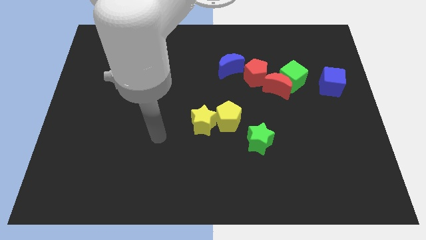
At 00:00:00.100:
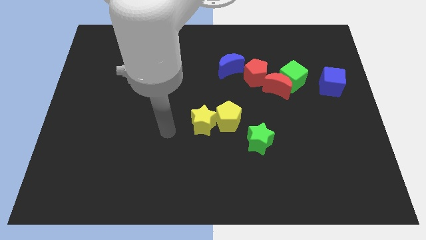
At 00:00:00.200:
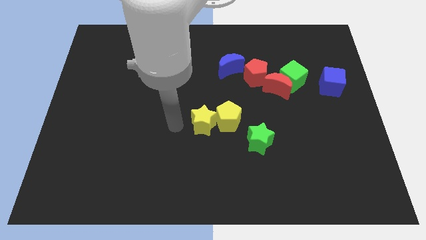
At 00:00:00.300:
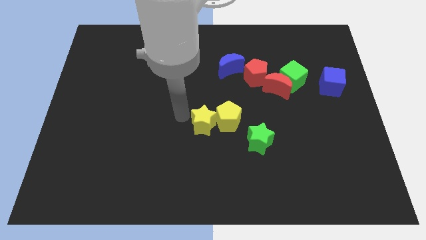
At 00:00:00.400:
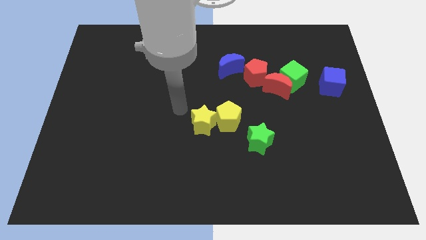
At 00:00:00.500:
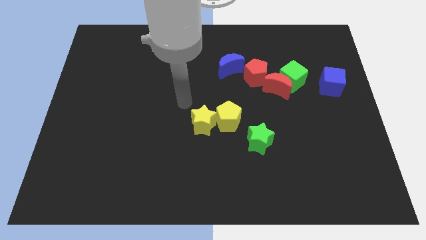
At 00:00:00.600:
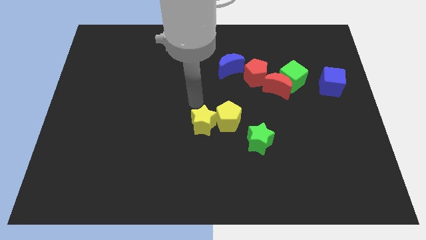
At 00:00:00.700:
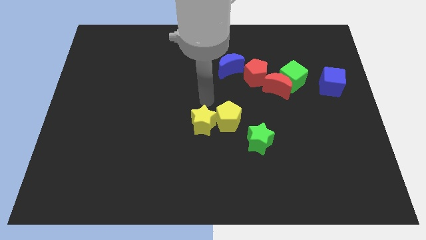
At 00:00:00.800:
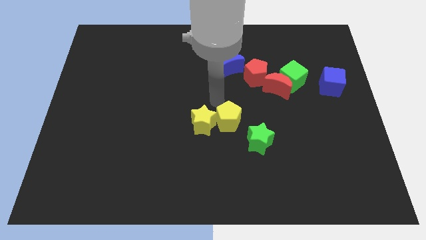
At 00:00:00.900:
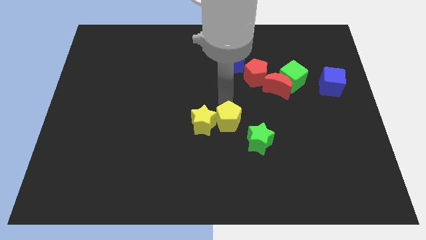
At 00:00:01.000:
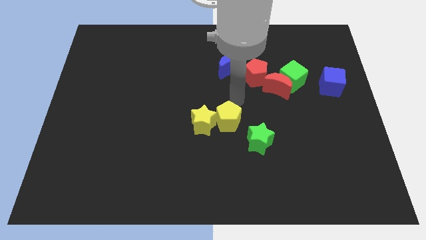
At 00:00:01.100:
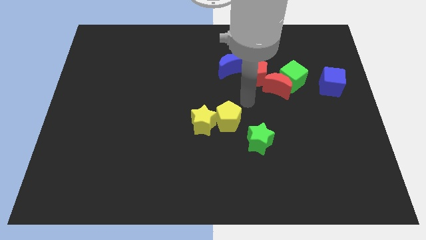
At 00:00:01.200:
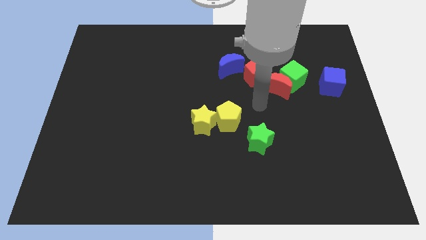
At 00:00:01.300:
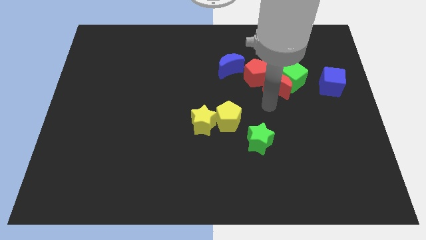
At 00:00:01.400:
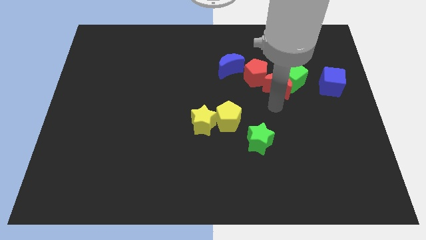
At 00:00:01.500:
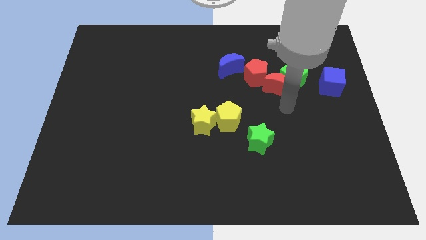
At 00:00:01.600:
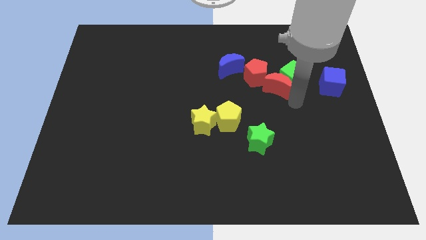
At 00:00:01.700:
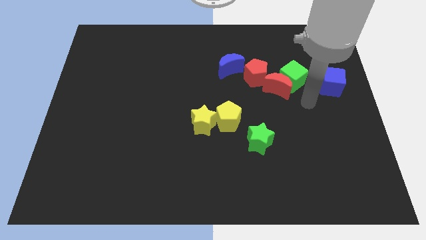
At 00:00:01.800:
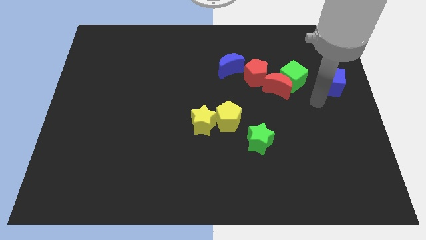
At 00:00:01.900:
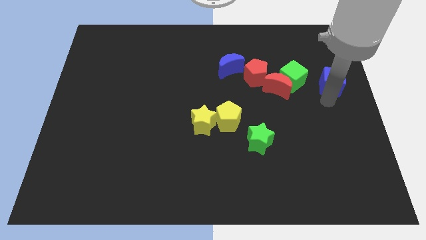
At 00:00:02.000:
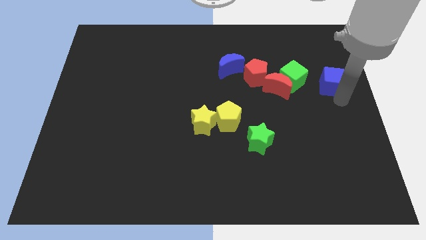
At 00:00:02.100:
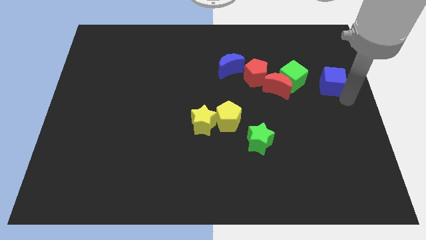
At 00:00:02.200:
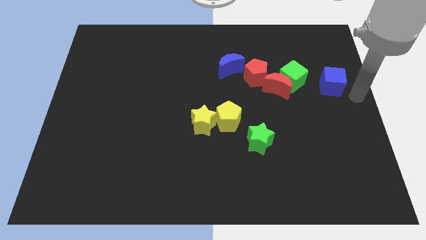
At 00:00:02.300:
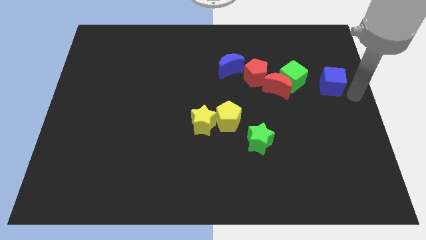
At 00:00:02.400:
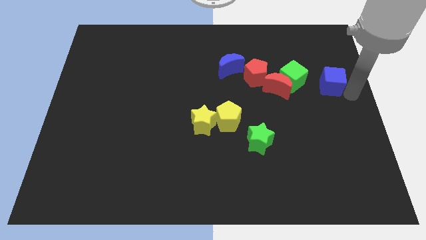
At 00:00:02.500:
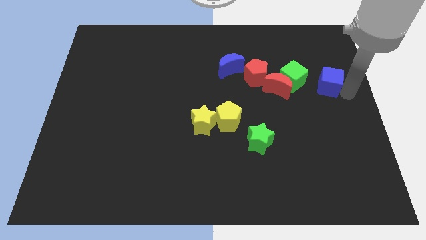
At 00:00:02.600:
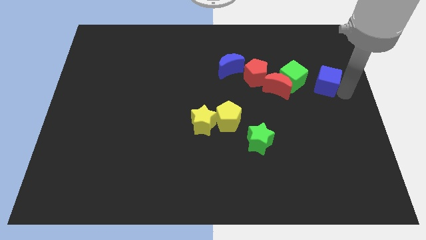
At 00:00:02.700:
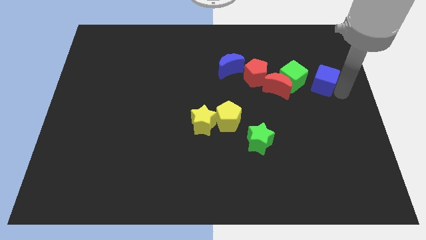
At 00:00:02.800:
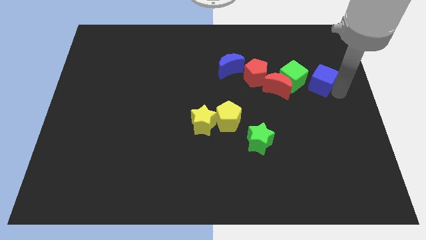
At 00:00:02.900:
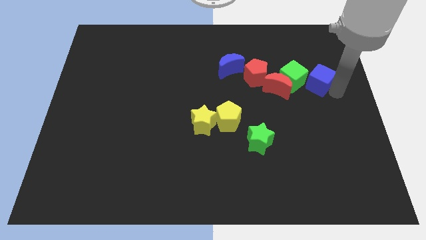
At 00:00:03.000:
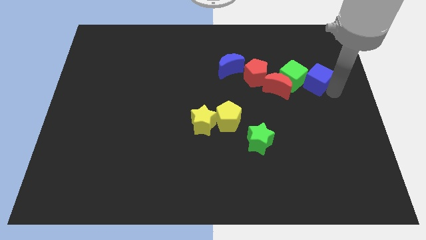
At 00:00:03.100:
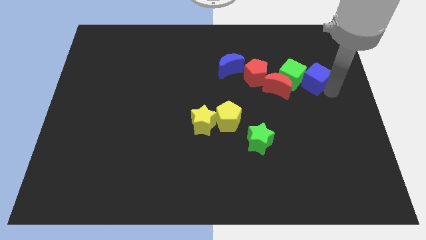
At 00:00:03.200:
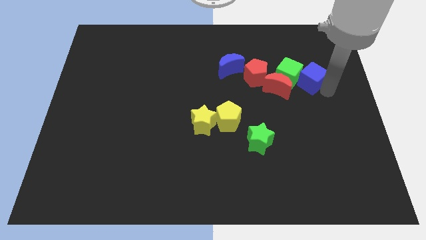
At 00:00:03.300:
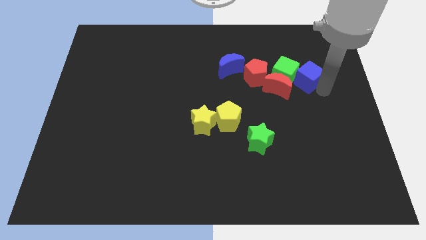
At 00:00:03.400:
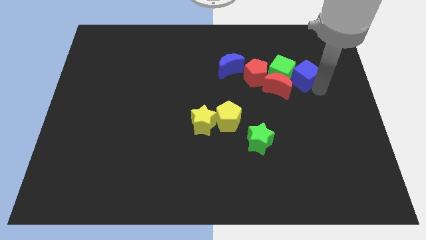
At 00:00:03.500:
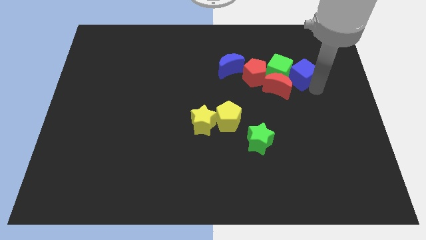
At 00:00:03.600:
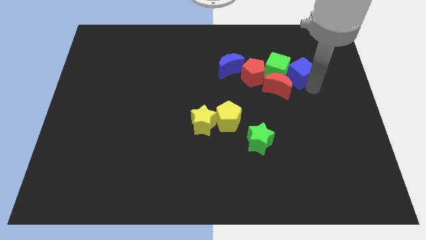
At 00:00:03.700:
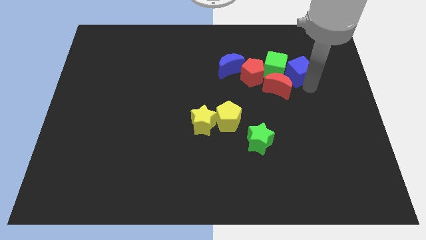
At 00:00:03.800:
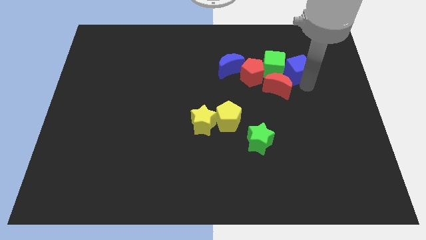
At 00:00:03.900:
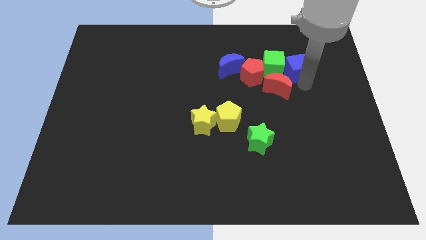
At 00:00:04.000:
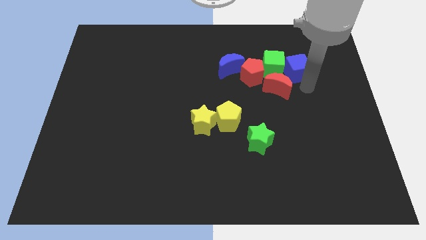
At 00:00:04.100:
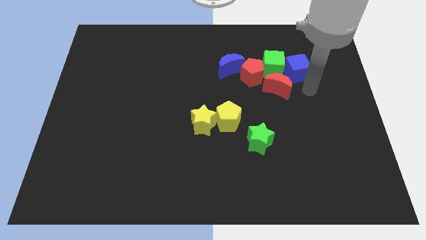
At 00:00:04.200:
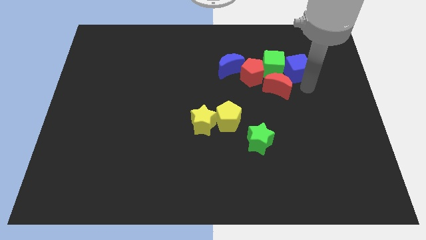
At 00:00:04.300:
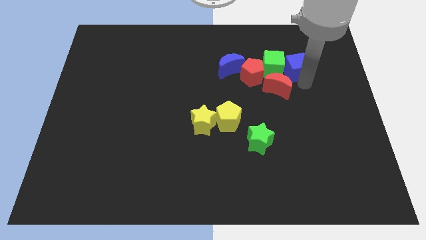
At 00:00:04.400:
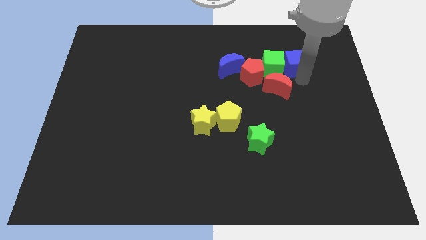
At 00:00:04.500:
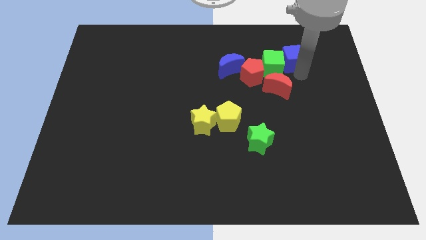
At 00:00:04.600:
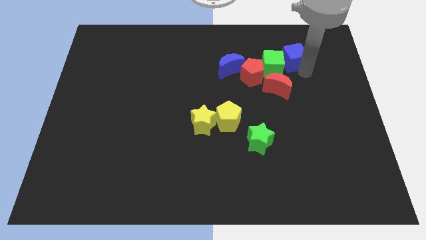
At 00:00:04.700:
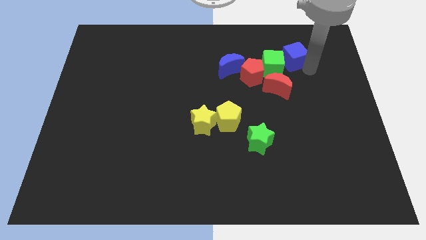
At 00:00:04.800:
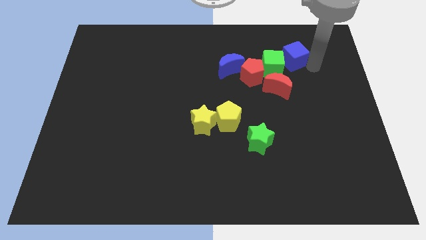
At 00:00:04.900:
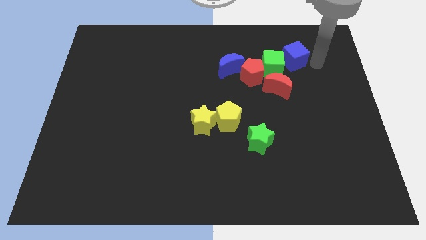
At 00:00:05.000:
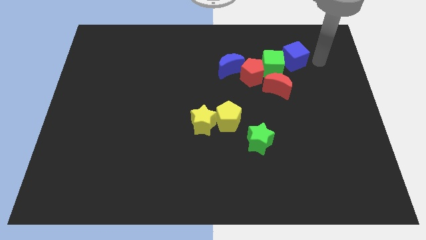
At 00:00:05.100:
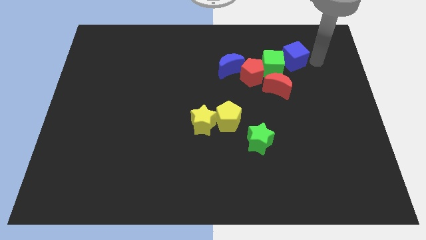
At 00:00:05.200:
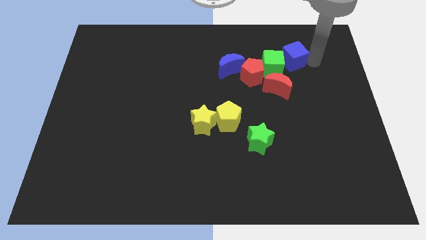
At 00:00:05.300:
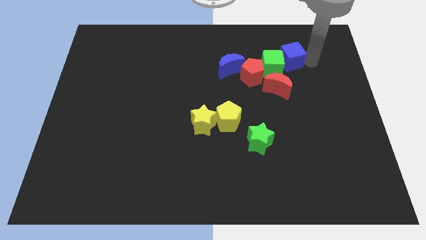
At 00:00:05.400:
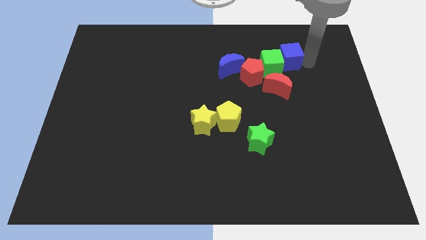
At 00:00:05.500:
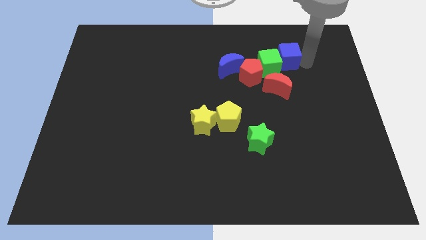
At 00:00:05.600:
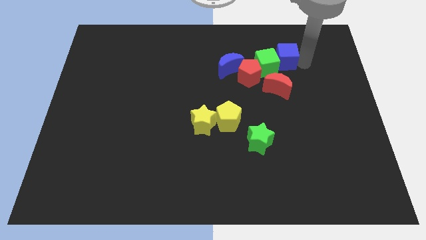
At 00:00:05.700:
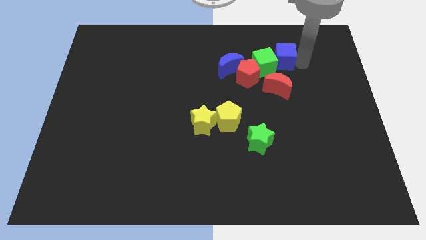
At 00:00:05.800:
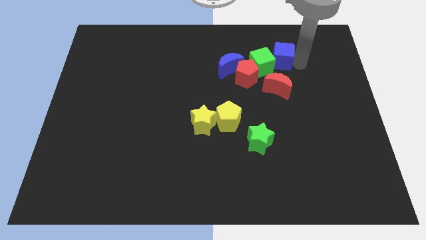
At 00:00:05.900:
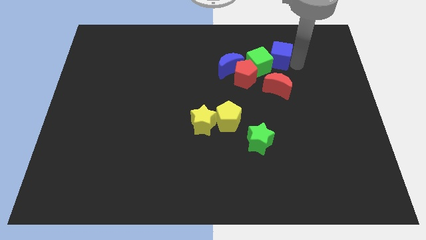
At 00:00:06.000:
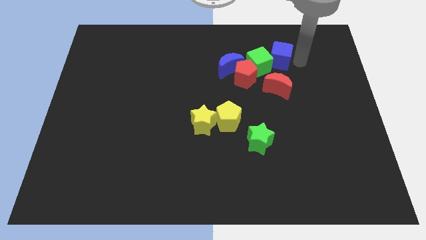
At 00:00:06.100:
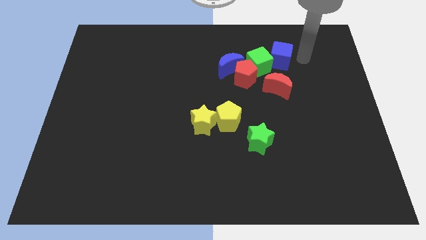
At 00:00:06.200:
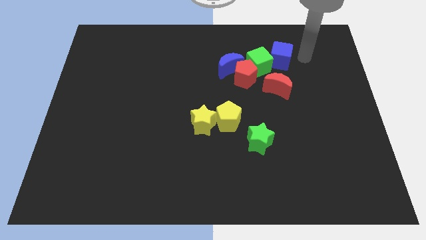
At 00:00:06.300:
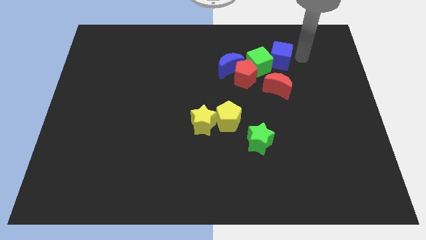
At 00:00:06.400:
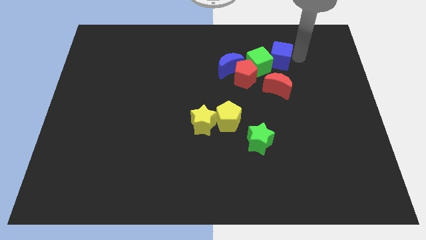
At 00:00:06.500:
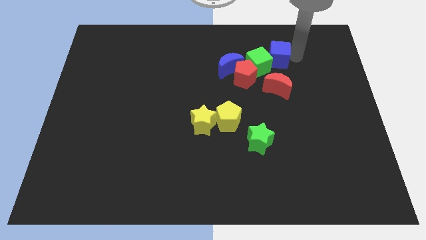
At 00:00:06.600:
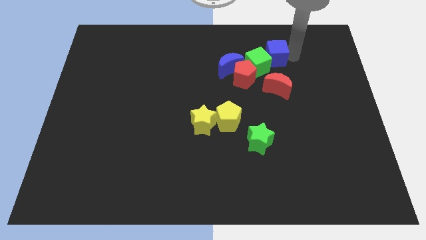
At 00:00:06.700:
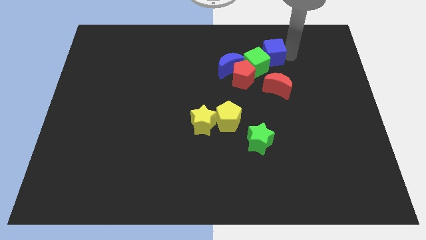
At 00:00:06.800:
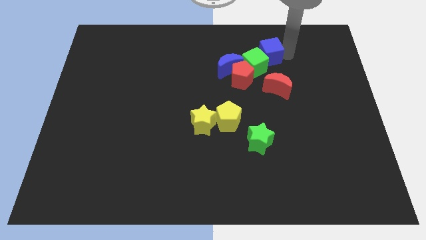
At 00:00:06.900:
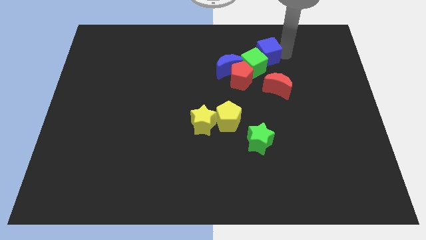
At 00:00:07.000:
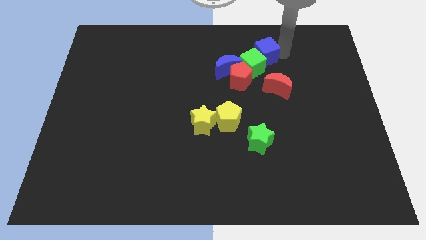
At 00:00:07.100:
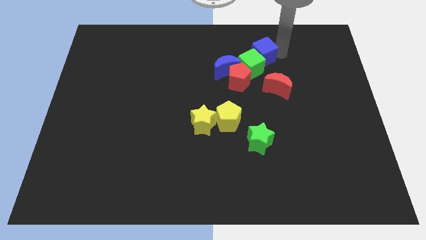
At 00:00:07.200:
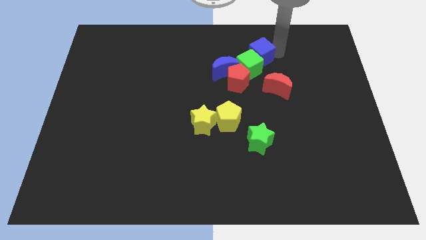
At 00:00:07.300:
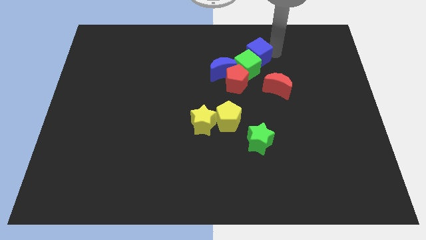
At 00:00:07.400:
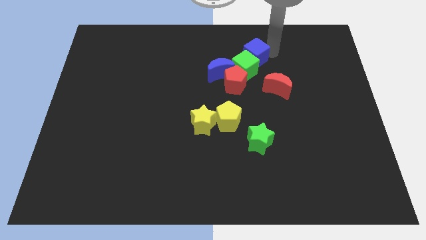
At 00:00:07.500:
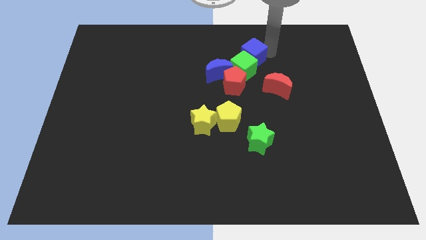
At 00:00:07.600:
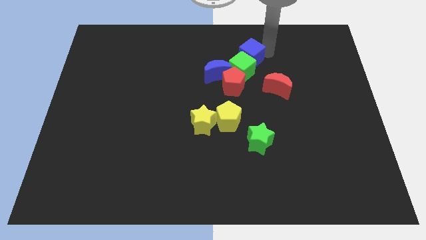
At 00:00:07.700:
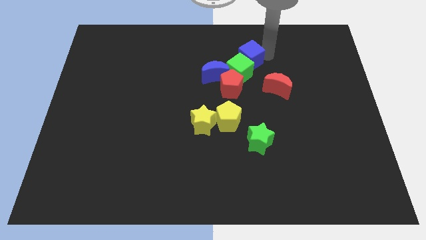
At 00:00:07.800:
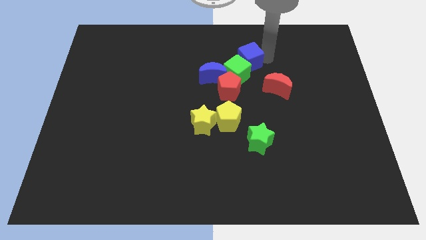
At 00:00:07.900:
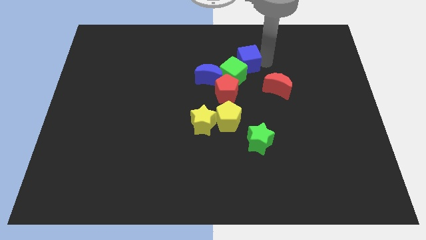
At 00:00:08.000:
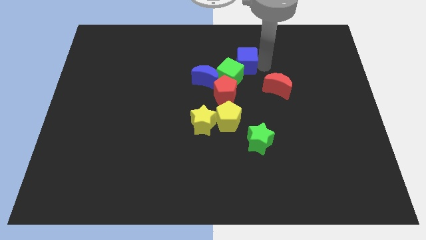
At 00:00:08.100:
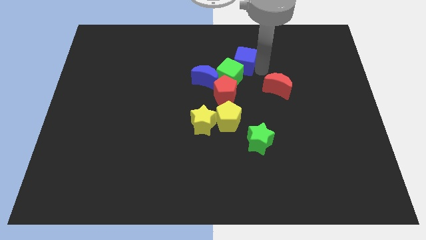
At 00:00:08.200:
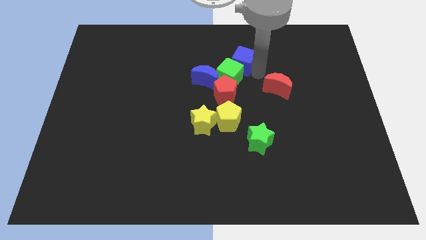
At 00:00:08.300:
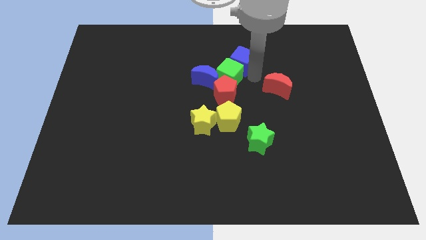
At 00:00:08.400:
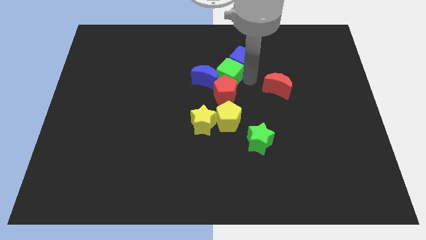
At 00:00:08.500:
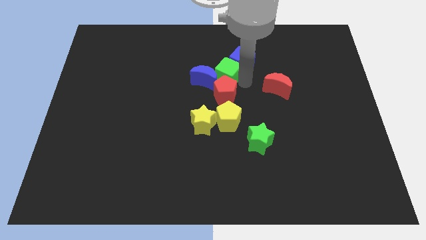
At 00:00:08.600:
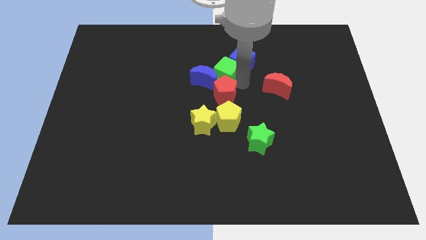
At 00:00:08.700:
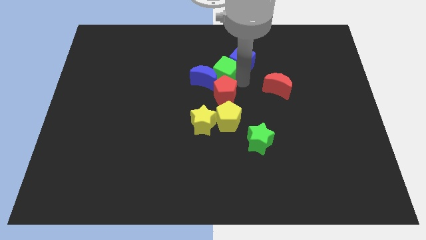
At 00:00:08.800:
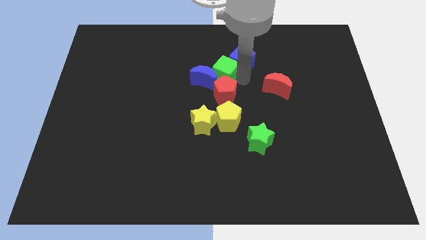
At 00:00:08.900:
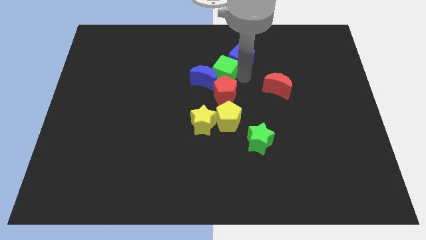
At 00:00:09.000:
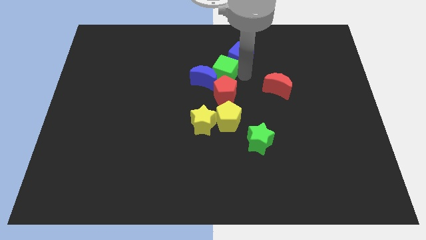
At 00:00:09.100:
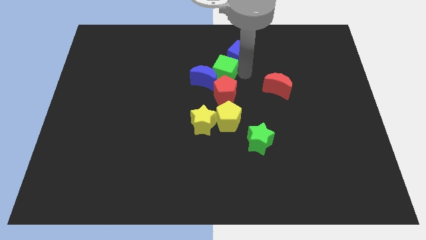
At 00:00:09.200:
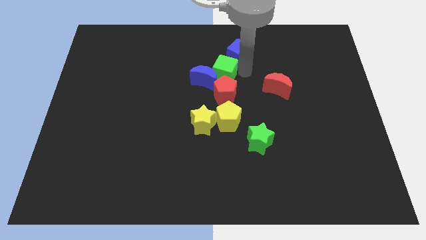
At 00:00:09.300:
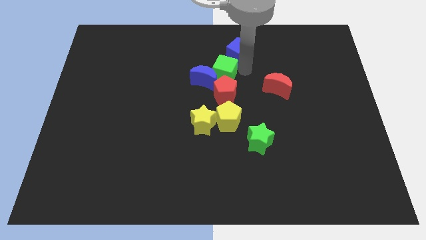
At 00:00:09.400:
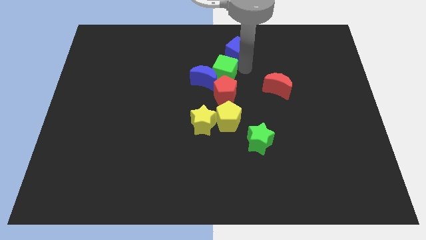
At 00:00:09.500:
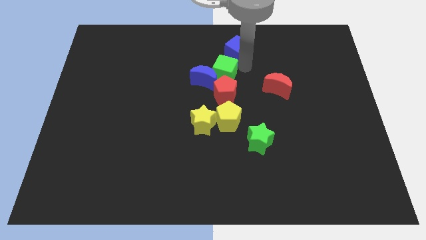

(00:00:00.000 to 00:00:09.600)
move the blue cube to the towards your base
